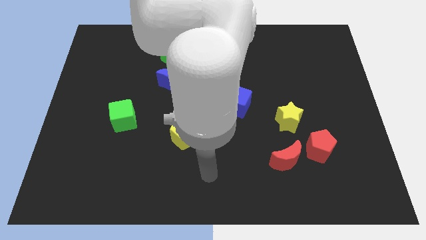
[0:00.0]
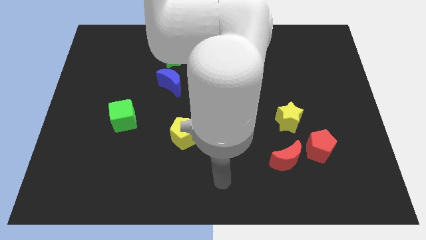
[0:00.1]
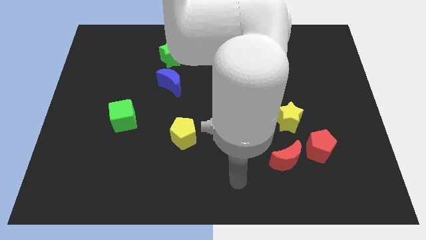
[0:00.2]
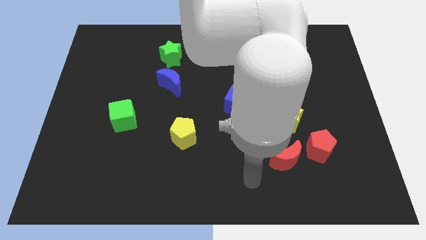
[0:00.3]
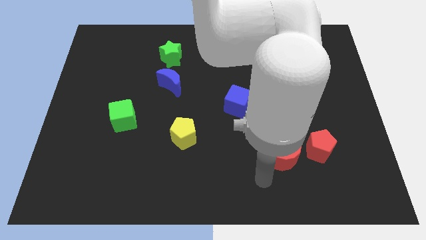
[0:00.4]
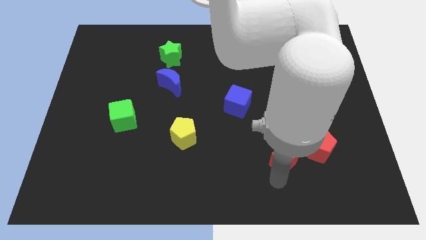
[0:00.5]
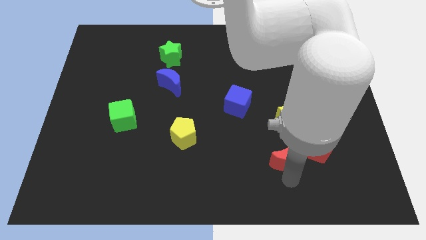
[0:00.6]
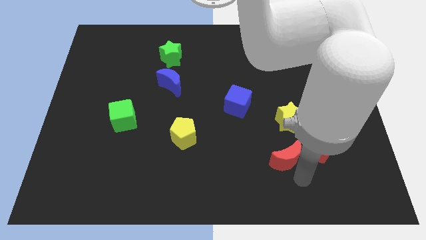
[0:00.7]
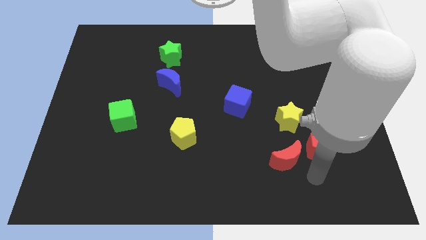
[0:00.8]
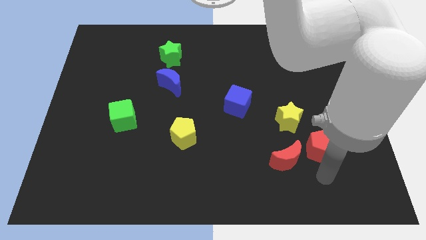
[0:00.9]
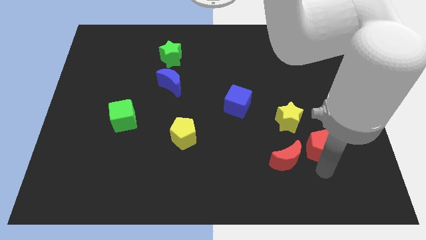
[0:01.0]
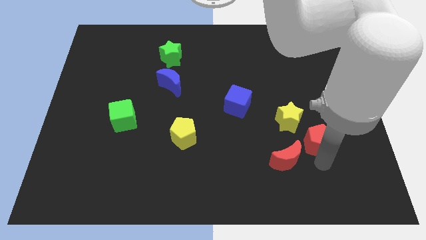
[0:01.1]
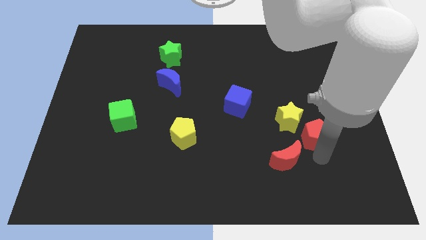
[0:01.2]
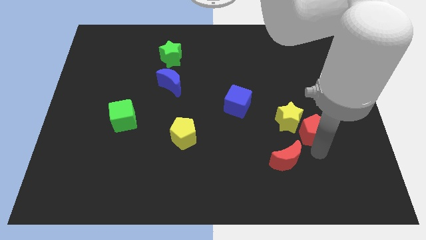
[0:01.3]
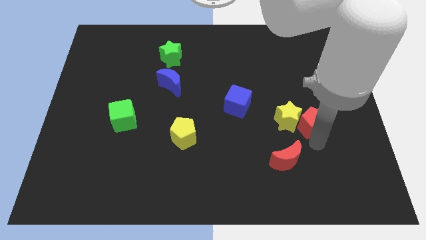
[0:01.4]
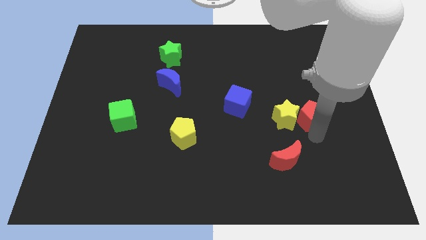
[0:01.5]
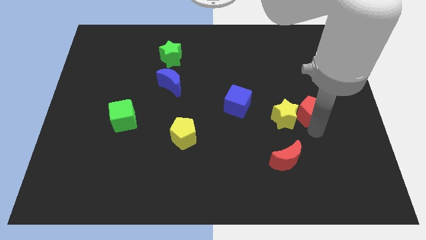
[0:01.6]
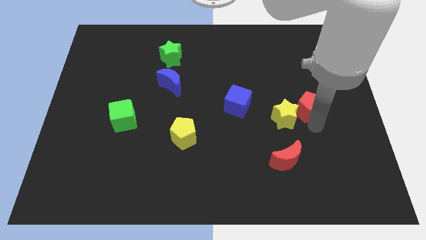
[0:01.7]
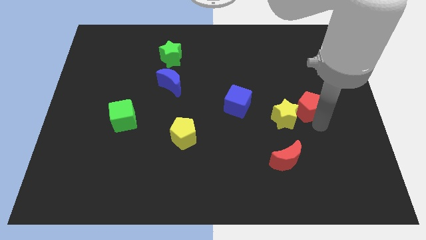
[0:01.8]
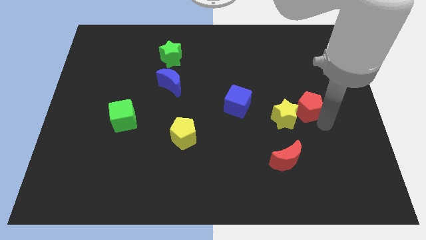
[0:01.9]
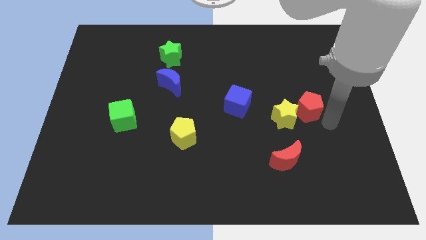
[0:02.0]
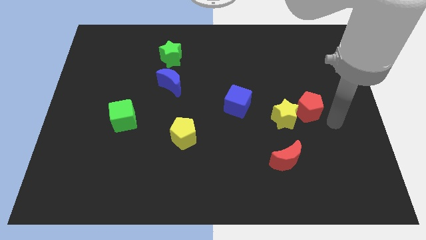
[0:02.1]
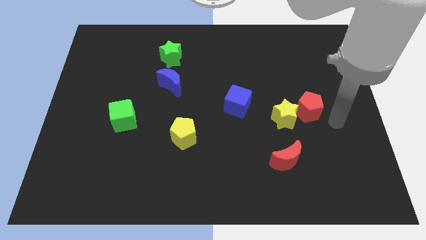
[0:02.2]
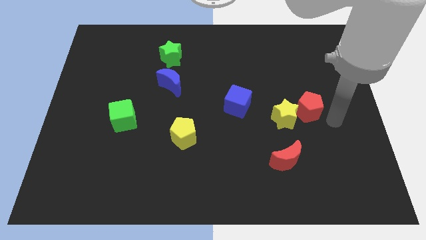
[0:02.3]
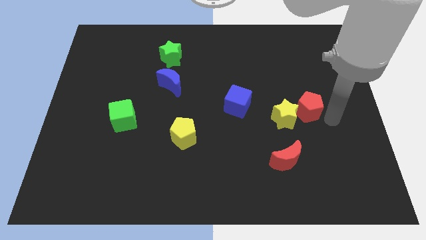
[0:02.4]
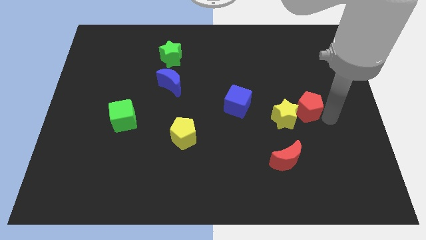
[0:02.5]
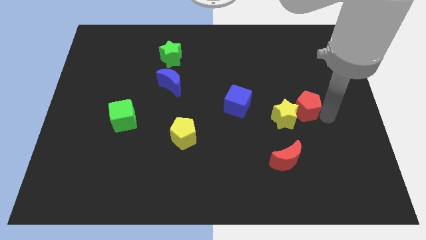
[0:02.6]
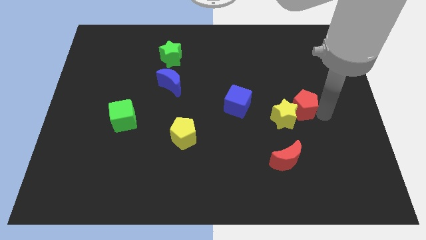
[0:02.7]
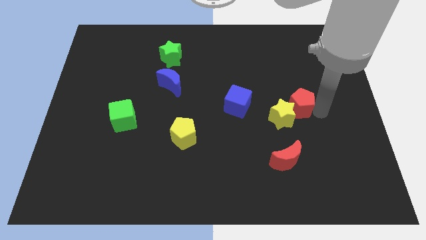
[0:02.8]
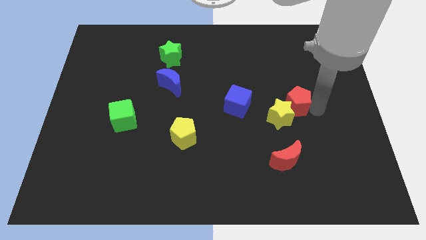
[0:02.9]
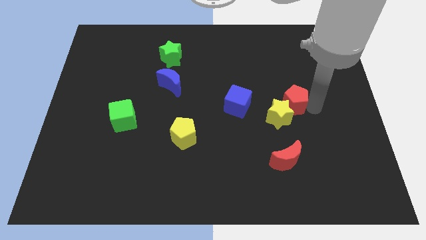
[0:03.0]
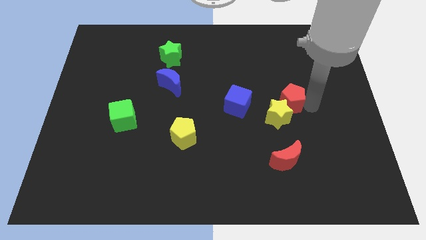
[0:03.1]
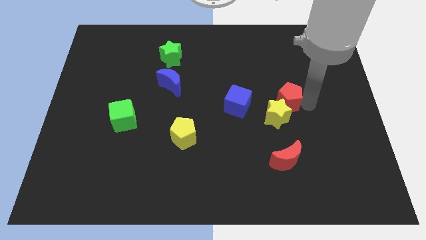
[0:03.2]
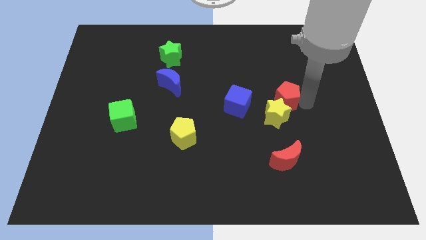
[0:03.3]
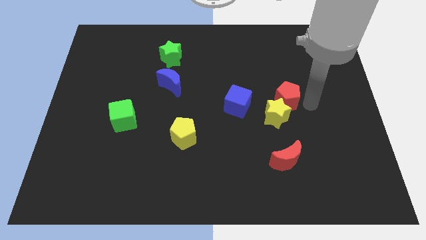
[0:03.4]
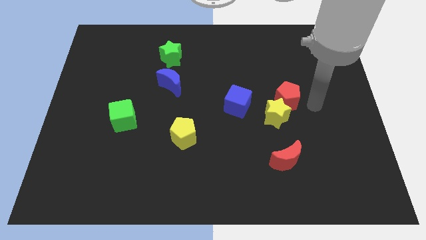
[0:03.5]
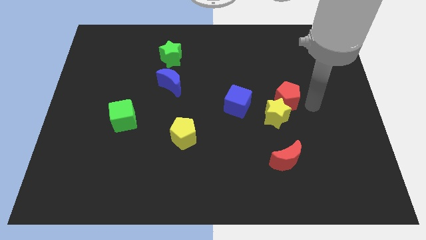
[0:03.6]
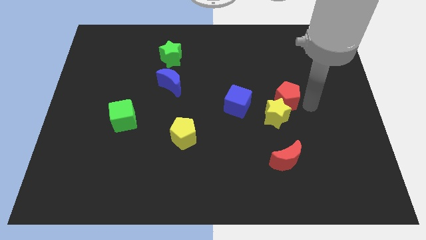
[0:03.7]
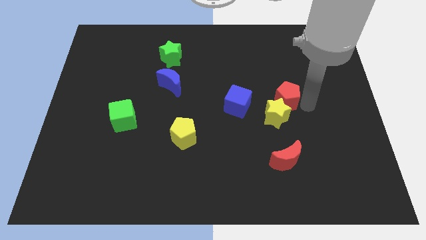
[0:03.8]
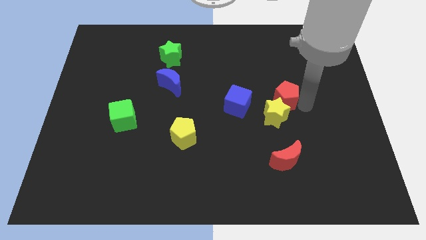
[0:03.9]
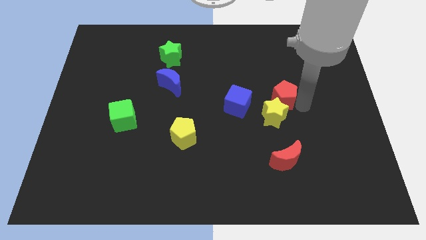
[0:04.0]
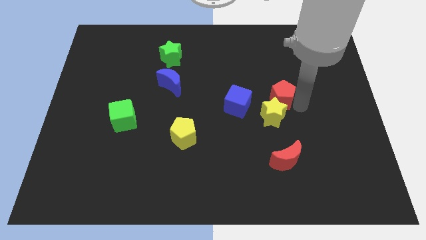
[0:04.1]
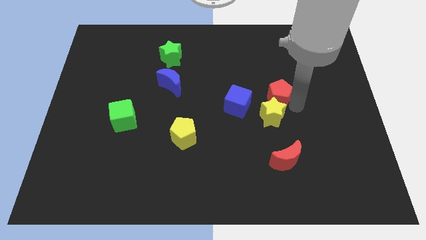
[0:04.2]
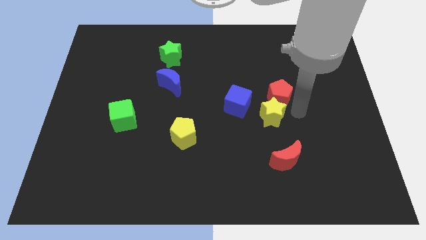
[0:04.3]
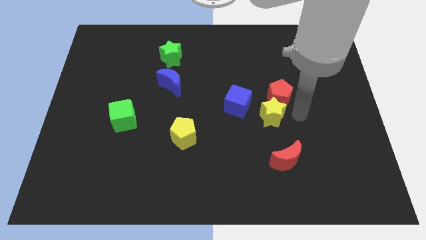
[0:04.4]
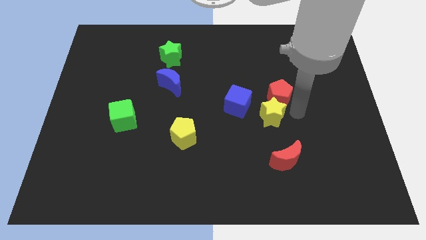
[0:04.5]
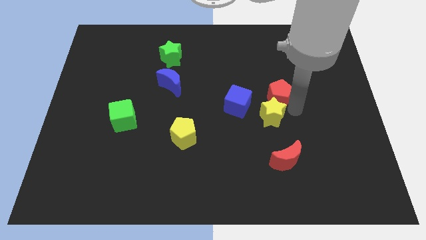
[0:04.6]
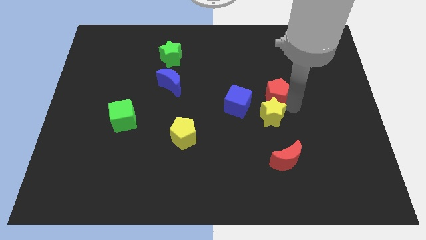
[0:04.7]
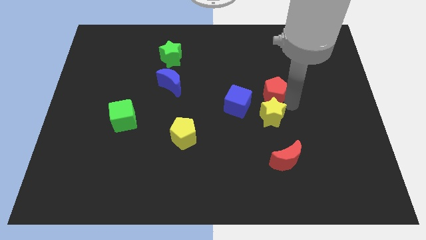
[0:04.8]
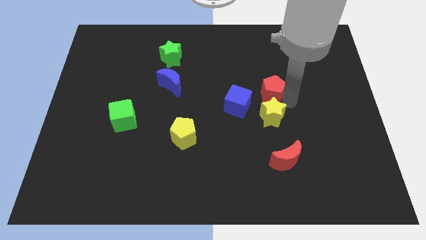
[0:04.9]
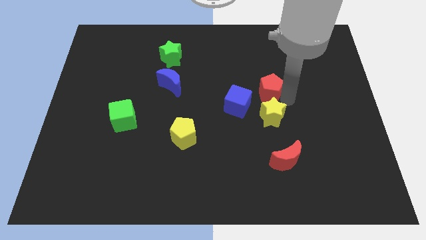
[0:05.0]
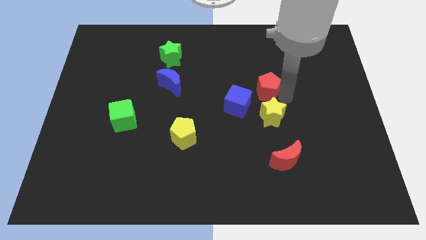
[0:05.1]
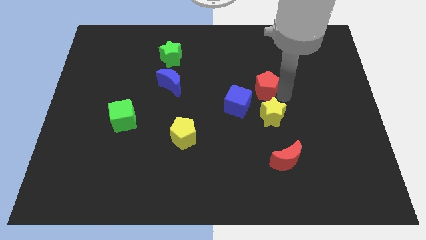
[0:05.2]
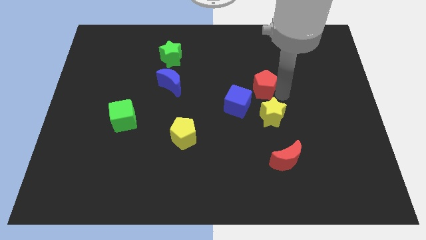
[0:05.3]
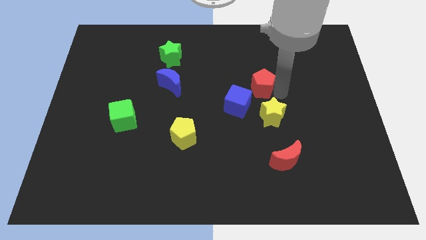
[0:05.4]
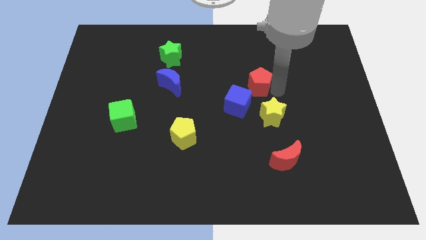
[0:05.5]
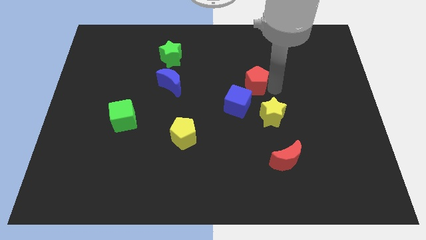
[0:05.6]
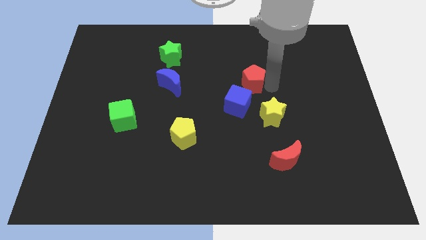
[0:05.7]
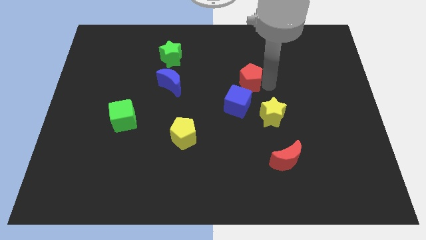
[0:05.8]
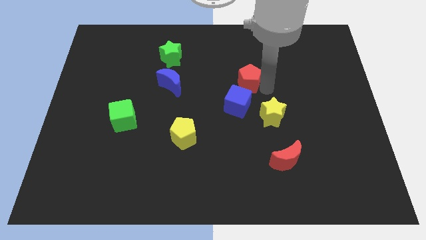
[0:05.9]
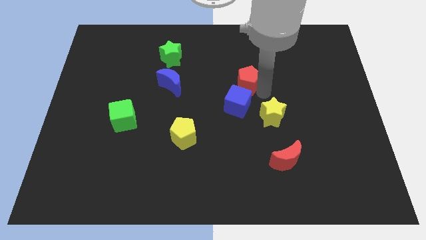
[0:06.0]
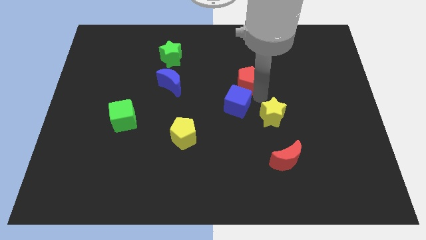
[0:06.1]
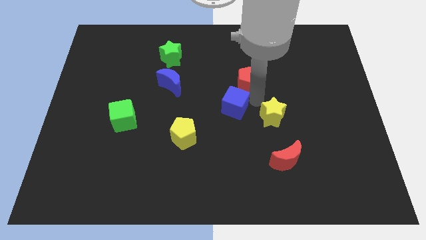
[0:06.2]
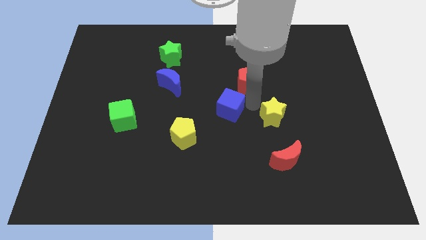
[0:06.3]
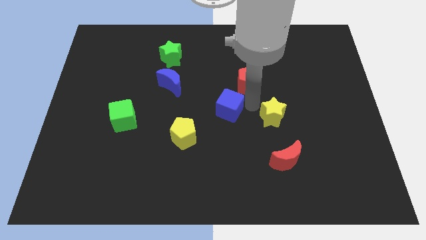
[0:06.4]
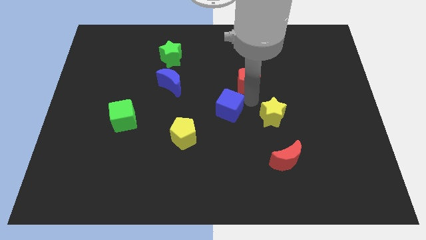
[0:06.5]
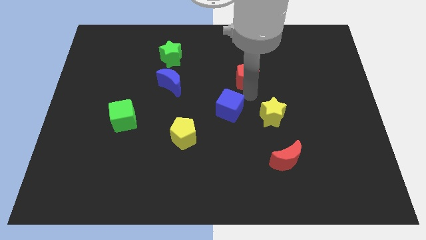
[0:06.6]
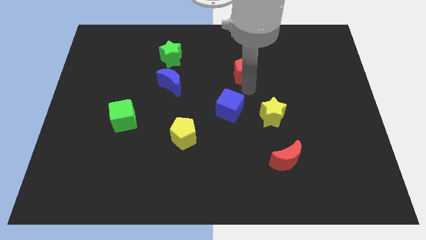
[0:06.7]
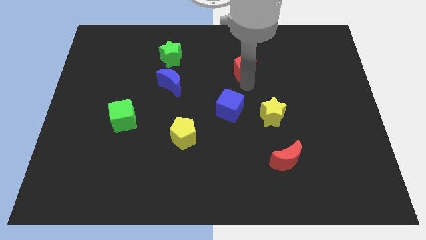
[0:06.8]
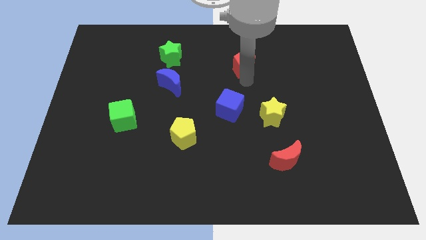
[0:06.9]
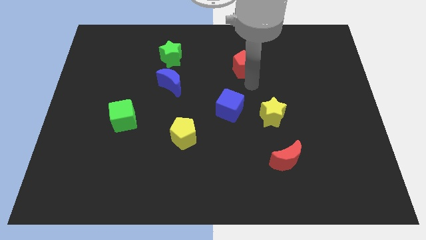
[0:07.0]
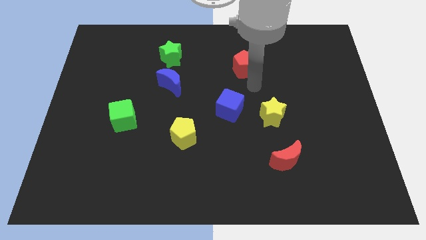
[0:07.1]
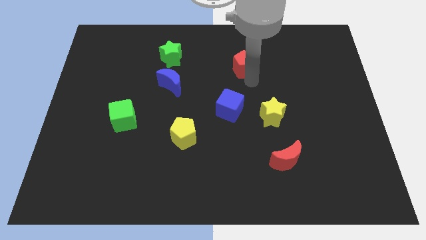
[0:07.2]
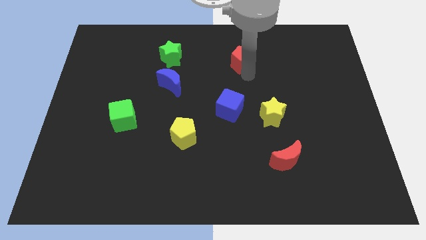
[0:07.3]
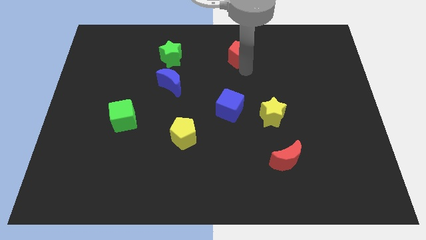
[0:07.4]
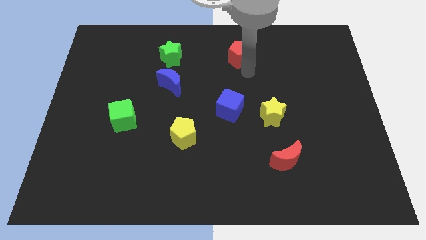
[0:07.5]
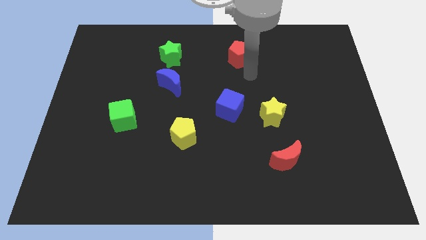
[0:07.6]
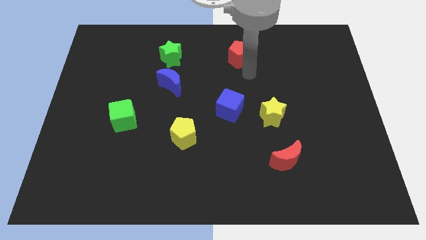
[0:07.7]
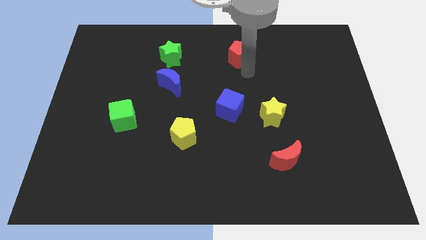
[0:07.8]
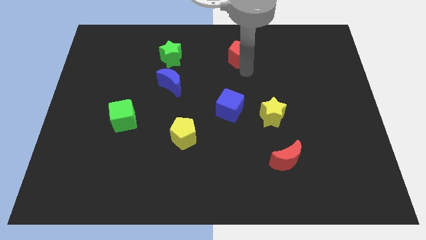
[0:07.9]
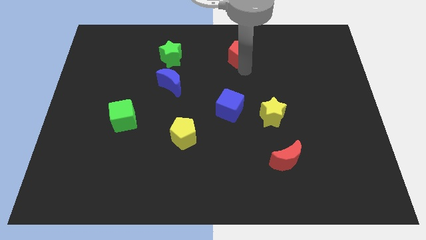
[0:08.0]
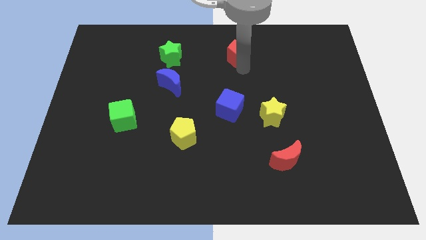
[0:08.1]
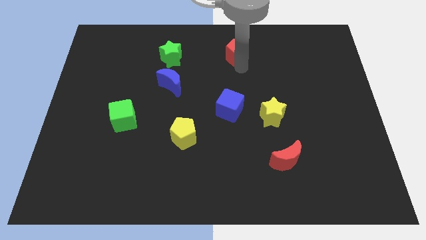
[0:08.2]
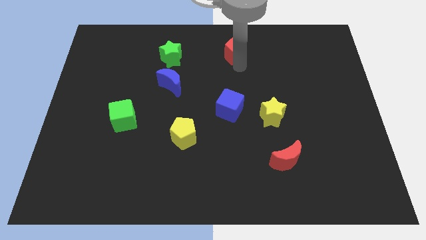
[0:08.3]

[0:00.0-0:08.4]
move the red pentagon to the top
